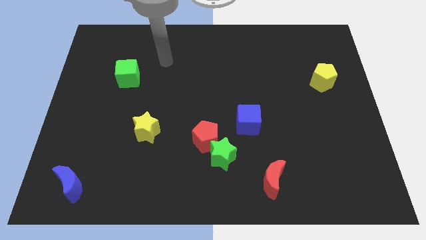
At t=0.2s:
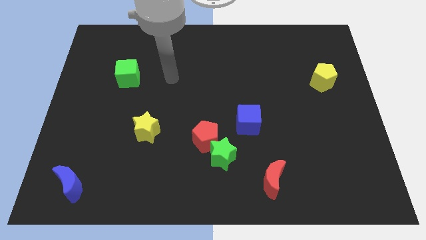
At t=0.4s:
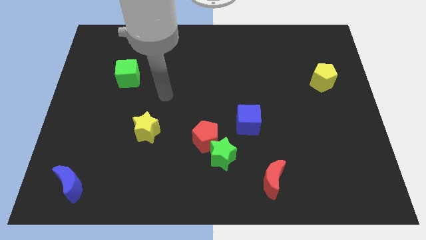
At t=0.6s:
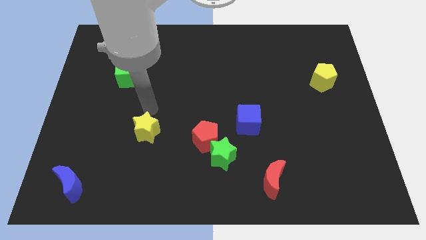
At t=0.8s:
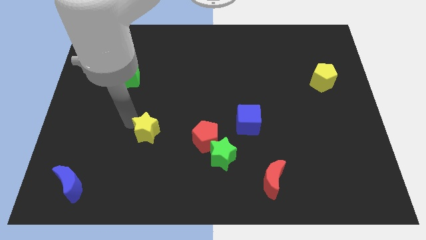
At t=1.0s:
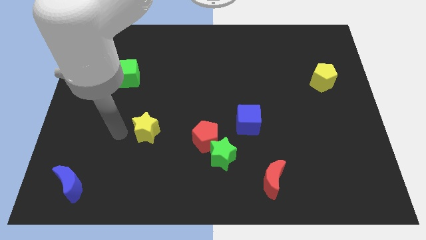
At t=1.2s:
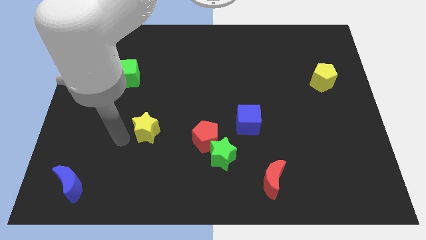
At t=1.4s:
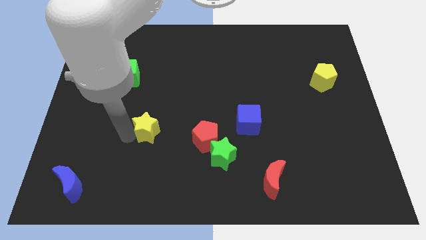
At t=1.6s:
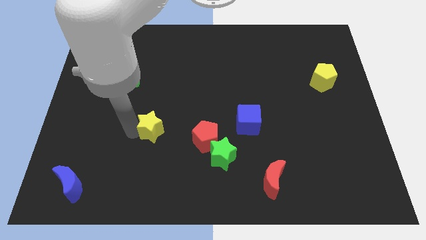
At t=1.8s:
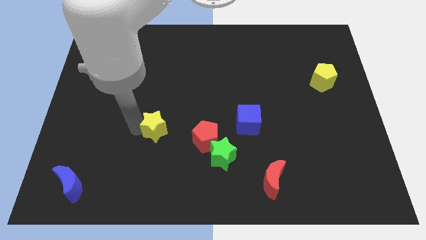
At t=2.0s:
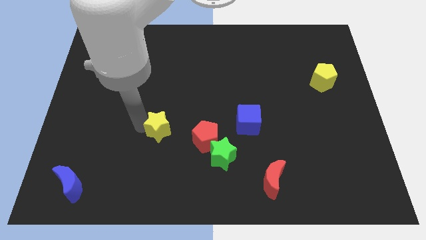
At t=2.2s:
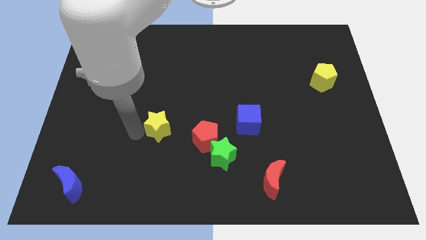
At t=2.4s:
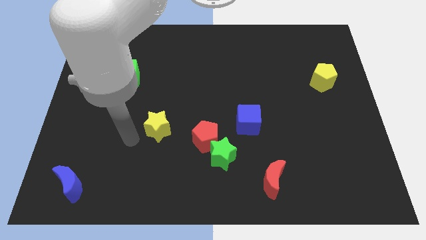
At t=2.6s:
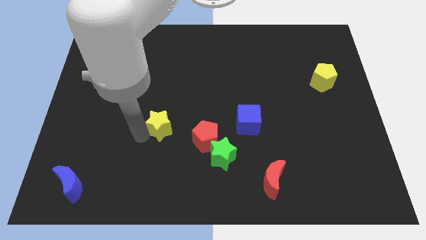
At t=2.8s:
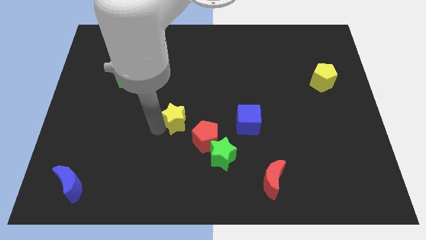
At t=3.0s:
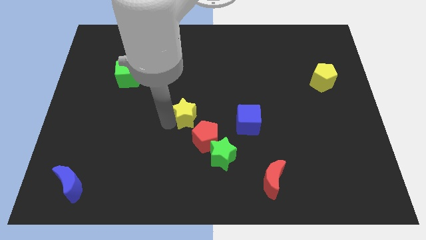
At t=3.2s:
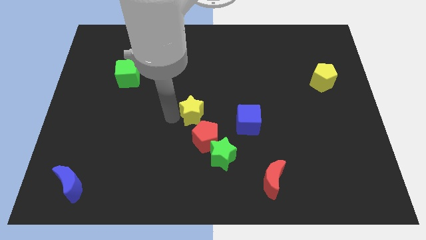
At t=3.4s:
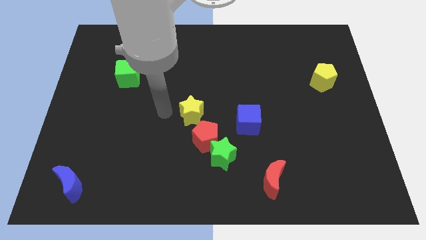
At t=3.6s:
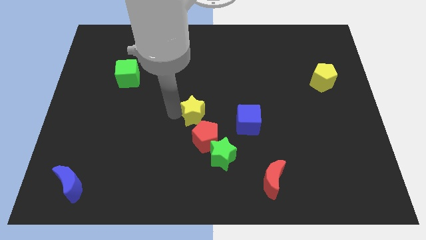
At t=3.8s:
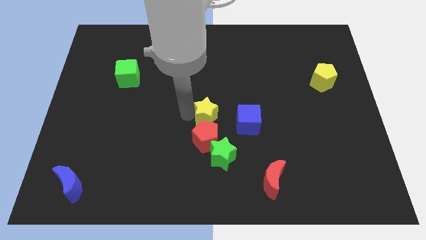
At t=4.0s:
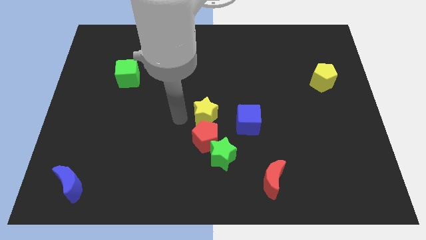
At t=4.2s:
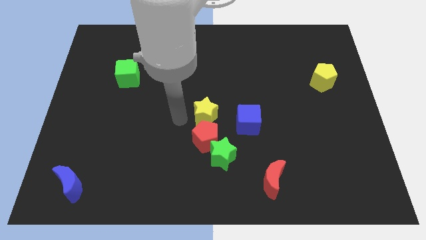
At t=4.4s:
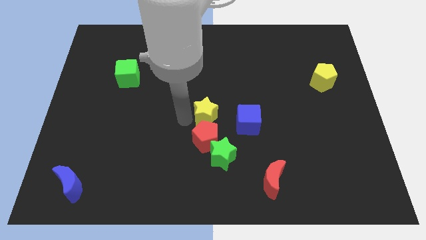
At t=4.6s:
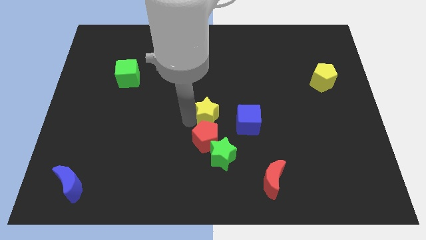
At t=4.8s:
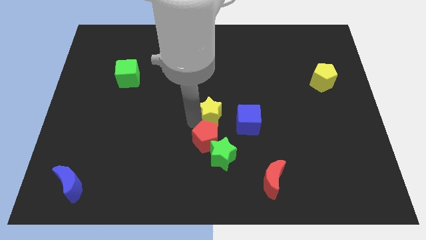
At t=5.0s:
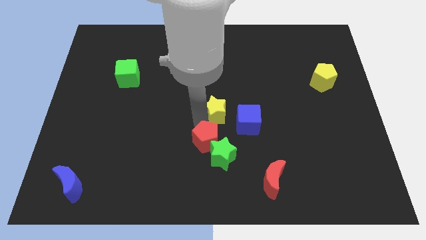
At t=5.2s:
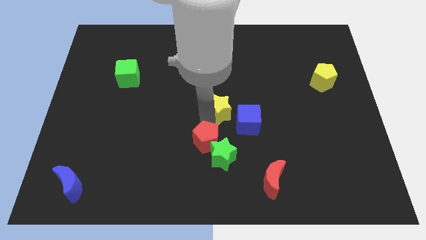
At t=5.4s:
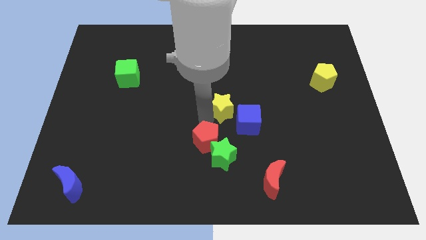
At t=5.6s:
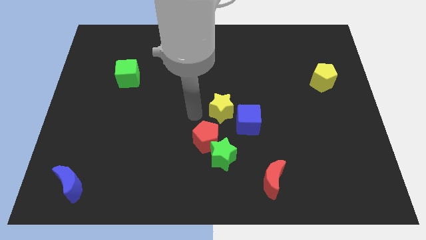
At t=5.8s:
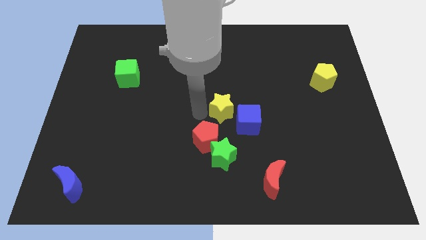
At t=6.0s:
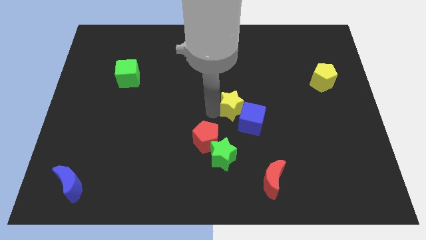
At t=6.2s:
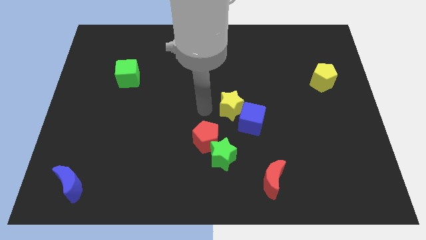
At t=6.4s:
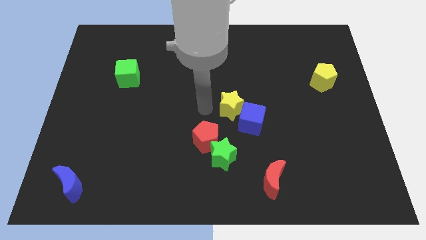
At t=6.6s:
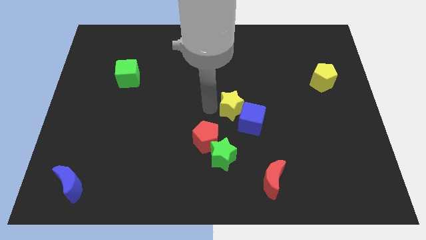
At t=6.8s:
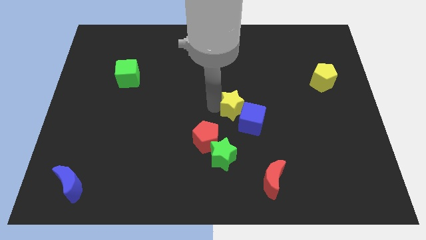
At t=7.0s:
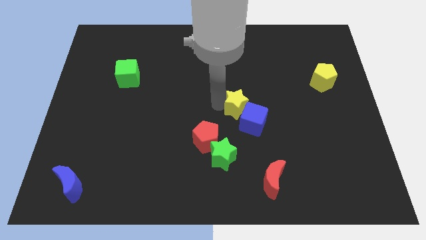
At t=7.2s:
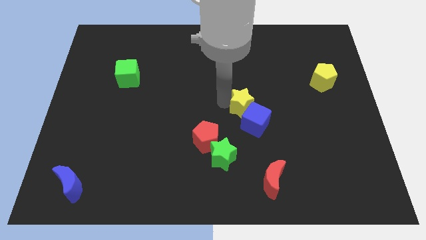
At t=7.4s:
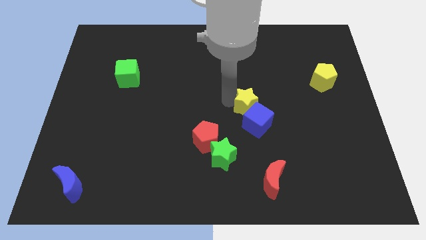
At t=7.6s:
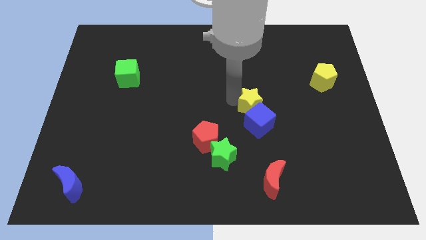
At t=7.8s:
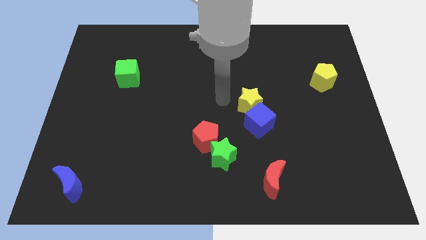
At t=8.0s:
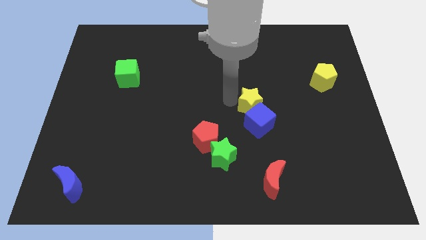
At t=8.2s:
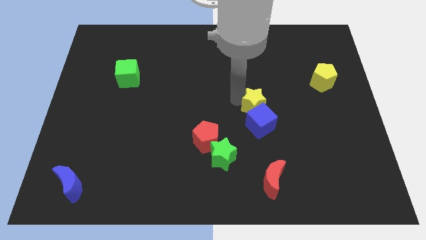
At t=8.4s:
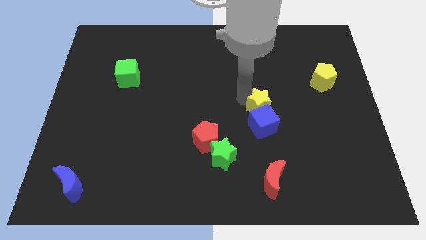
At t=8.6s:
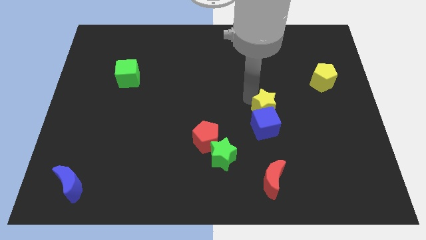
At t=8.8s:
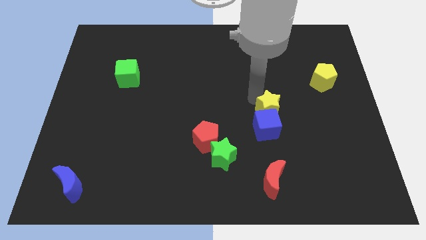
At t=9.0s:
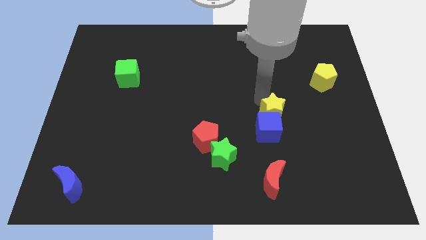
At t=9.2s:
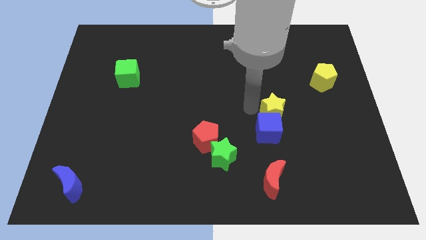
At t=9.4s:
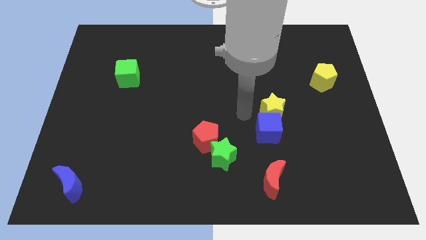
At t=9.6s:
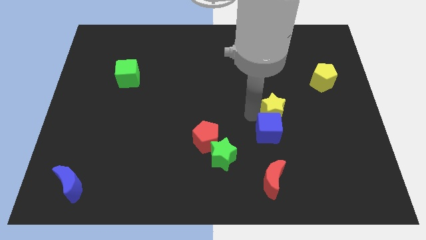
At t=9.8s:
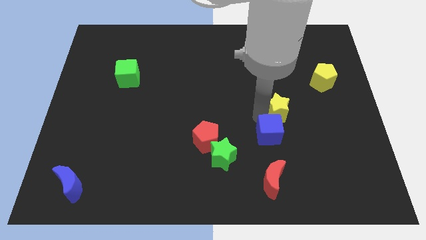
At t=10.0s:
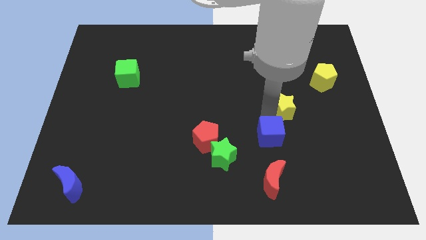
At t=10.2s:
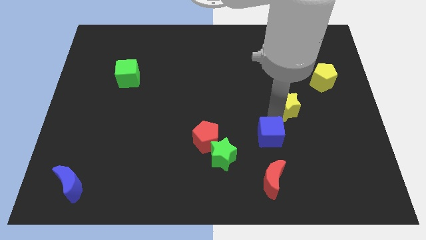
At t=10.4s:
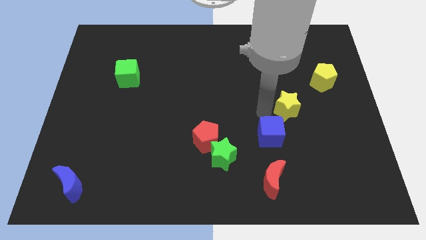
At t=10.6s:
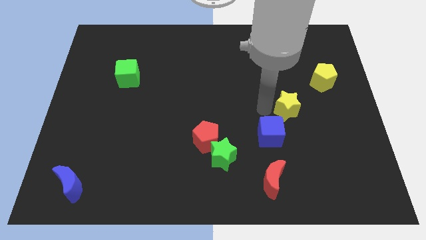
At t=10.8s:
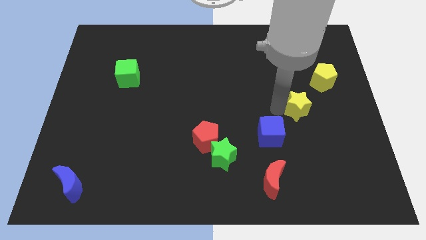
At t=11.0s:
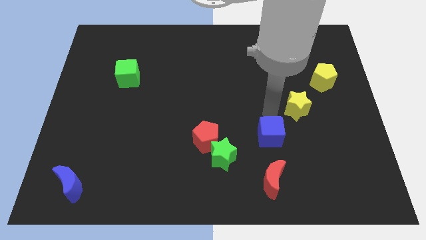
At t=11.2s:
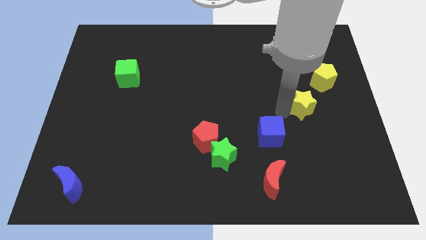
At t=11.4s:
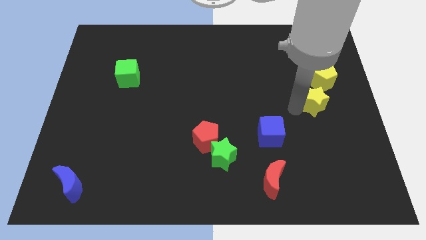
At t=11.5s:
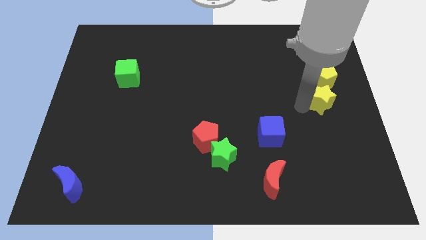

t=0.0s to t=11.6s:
push the yellow star to the center right

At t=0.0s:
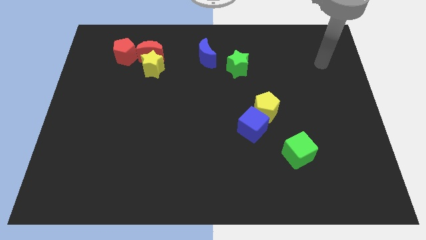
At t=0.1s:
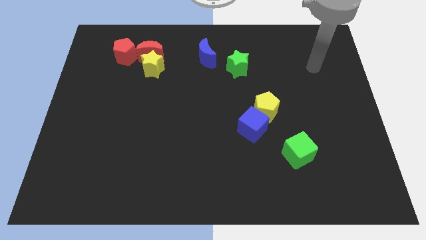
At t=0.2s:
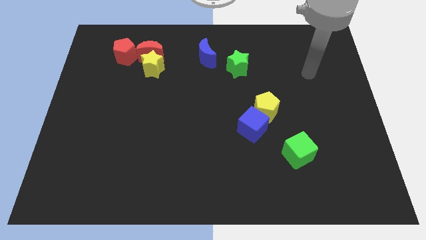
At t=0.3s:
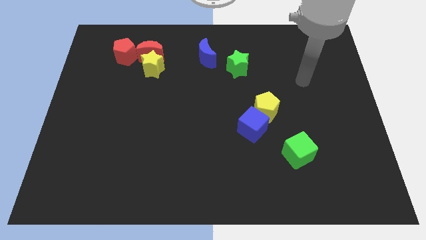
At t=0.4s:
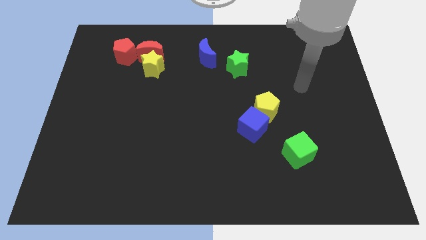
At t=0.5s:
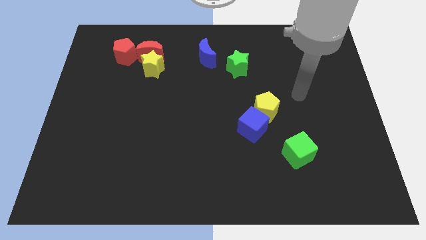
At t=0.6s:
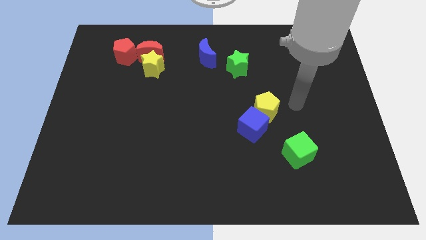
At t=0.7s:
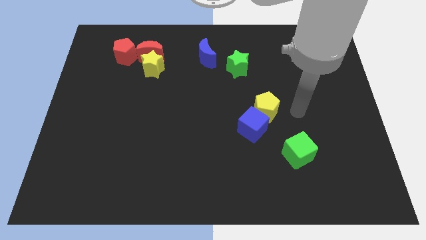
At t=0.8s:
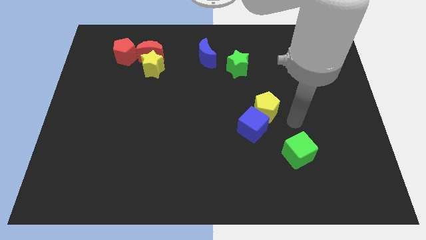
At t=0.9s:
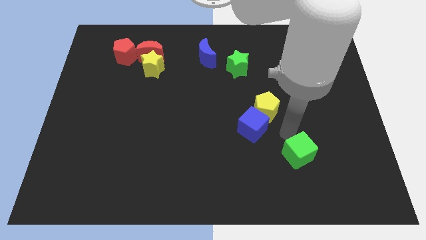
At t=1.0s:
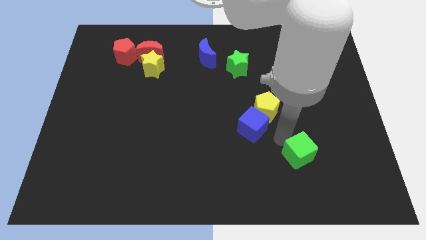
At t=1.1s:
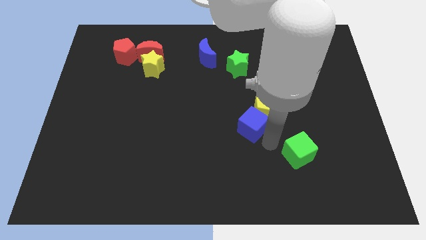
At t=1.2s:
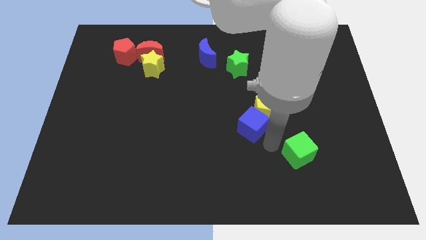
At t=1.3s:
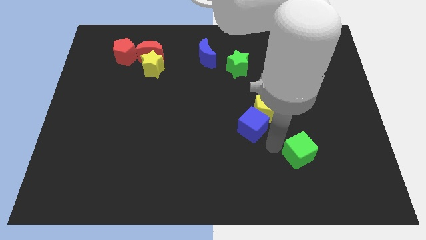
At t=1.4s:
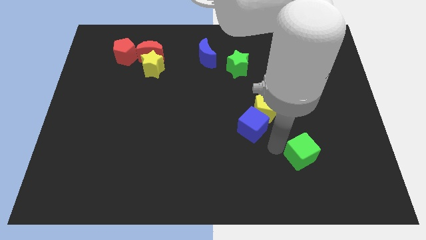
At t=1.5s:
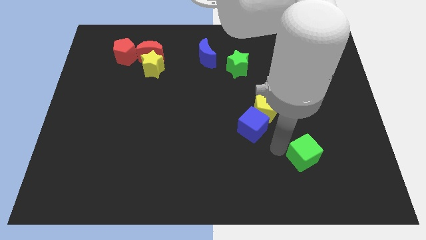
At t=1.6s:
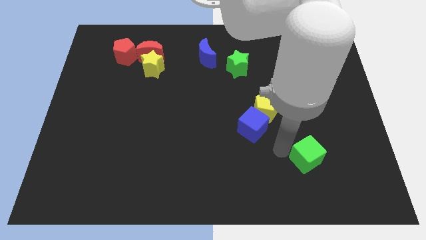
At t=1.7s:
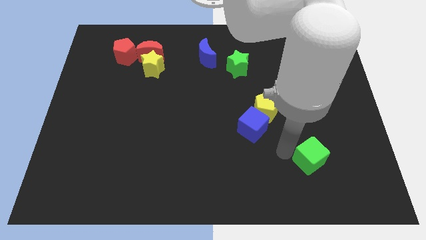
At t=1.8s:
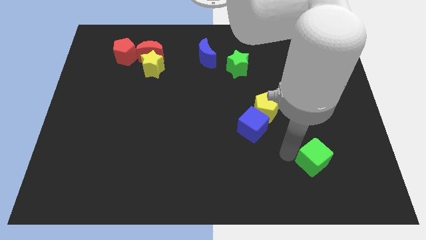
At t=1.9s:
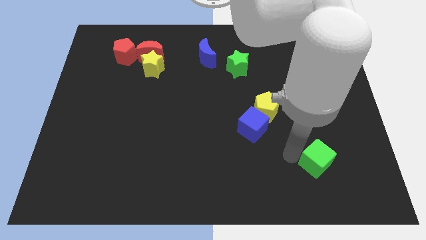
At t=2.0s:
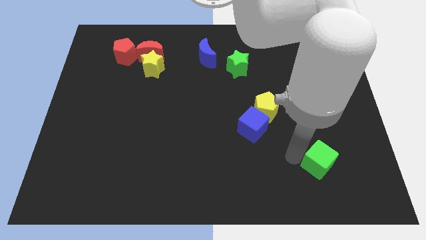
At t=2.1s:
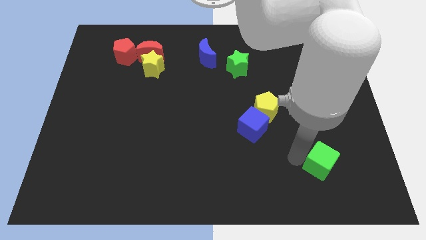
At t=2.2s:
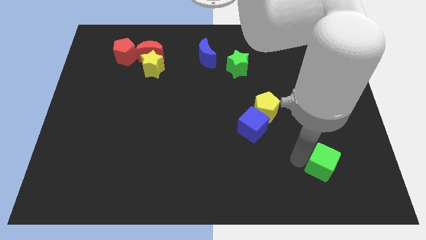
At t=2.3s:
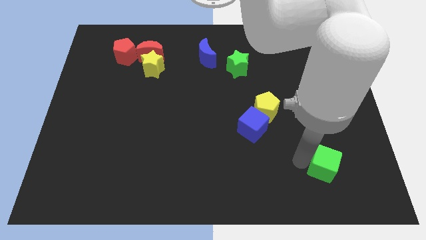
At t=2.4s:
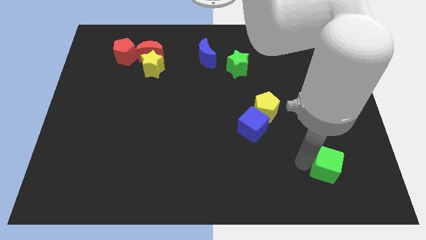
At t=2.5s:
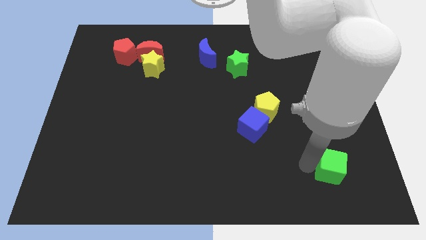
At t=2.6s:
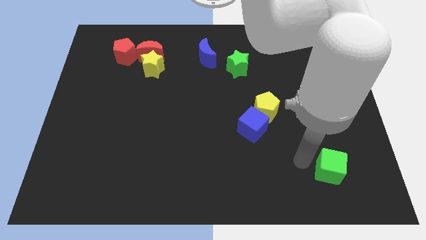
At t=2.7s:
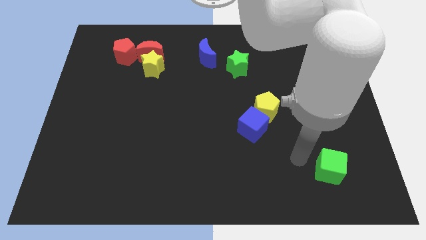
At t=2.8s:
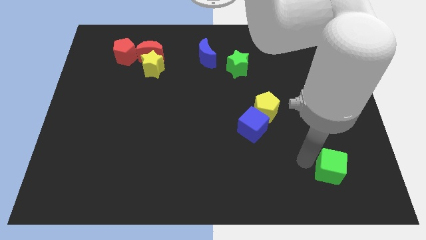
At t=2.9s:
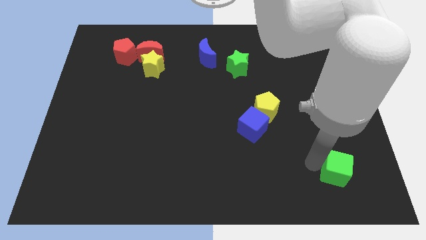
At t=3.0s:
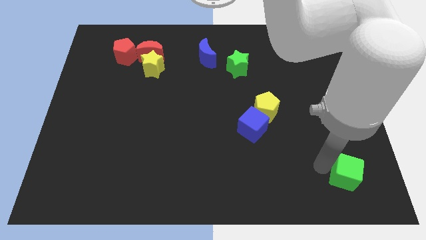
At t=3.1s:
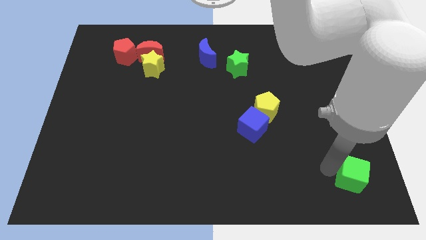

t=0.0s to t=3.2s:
slide the green cube to the lower right corner
